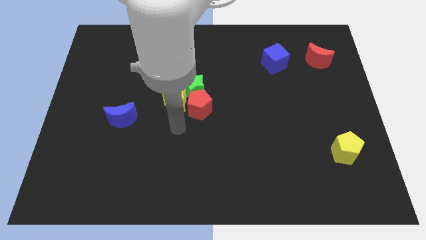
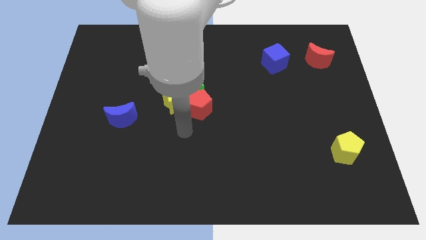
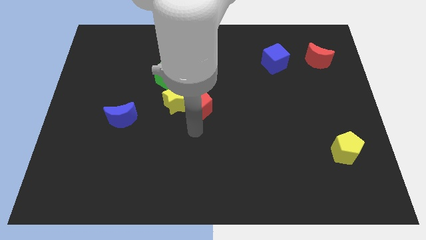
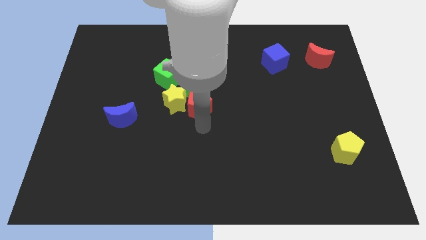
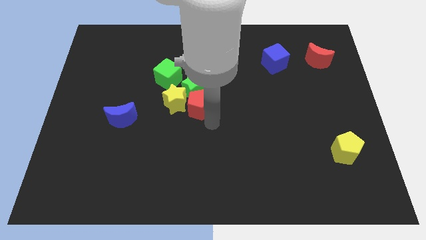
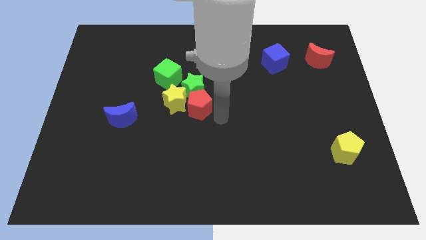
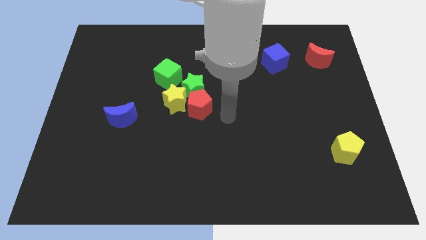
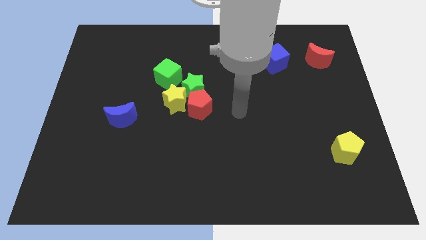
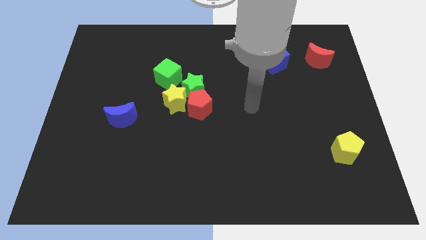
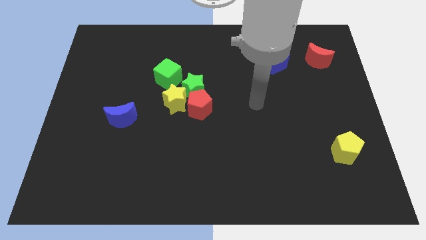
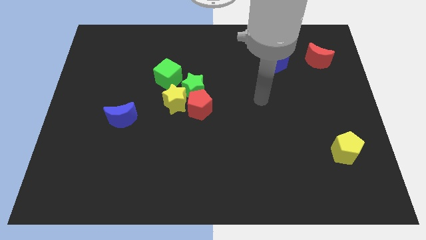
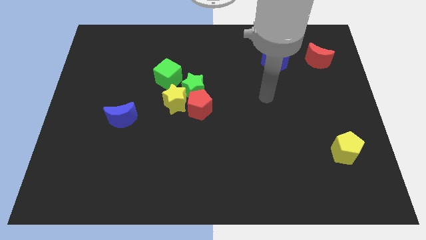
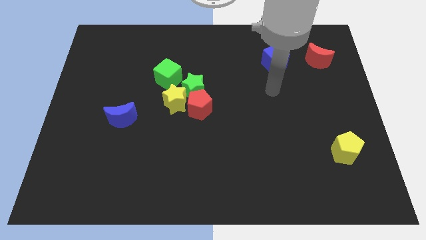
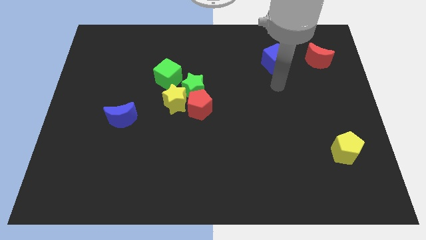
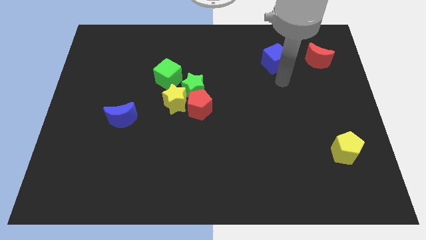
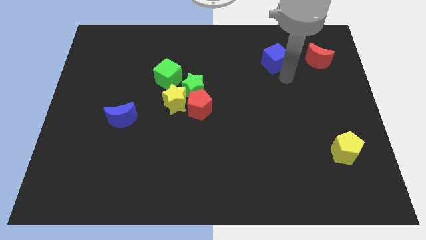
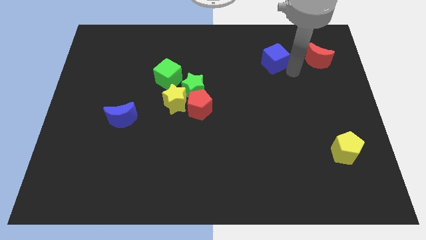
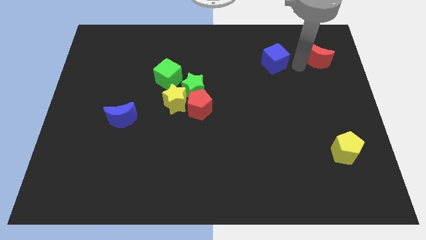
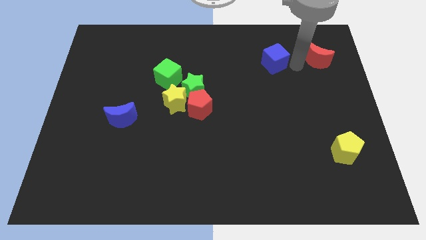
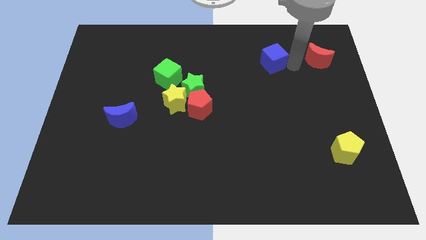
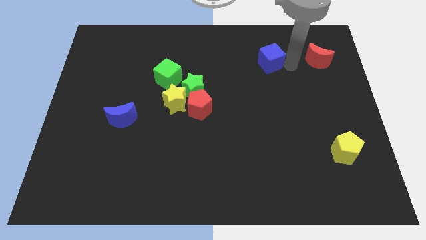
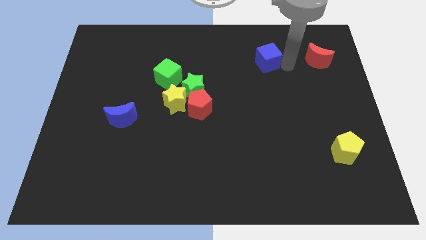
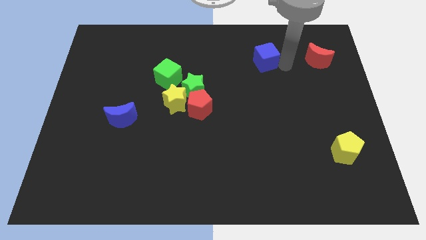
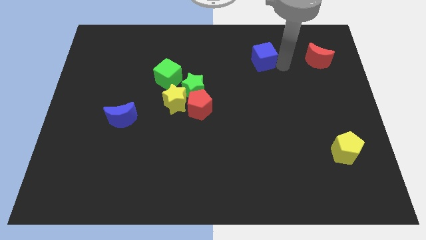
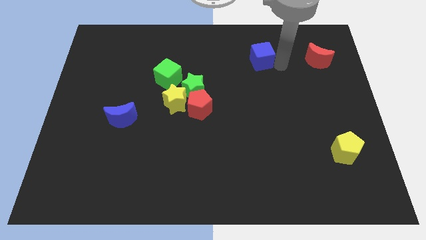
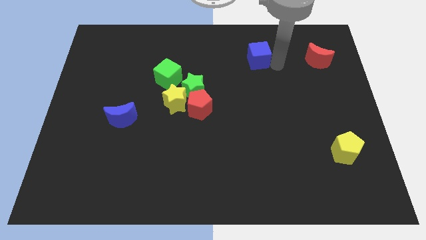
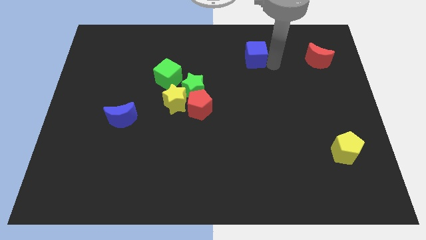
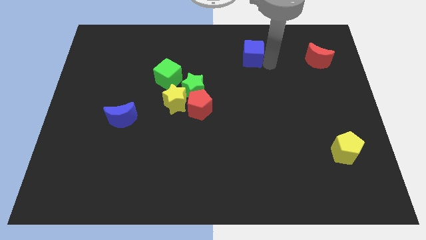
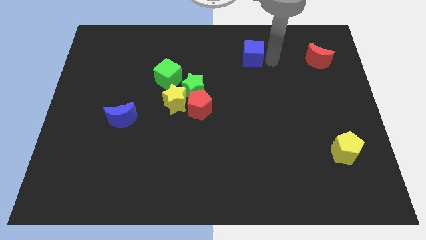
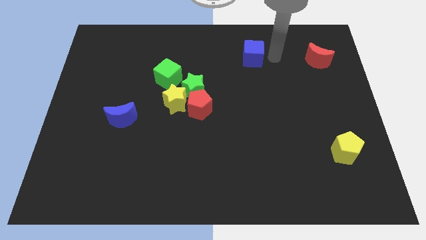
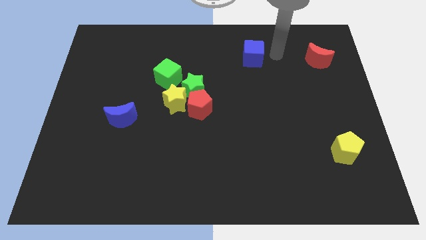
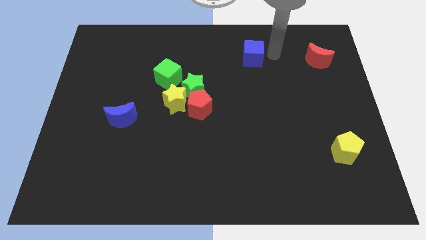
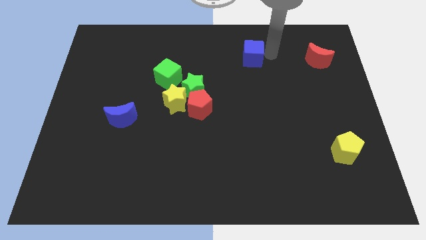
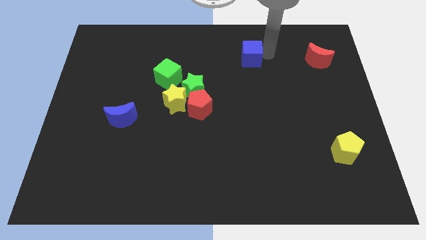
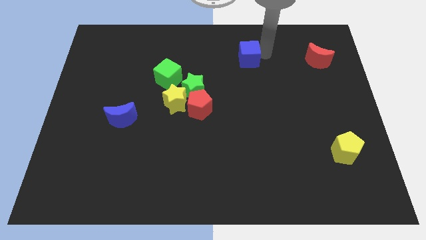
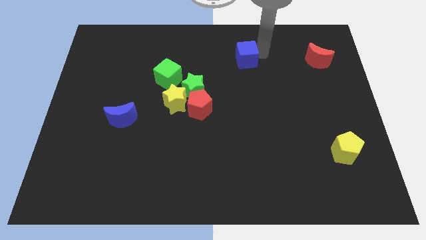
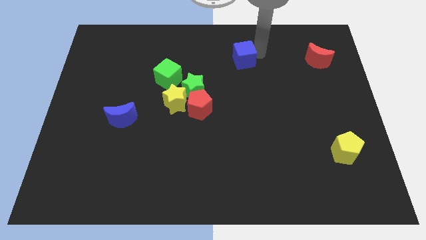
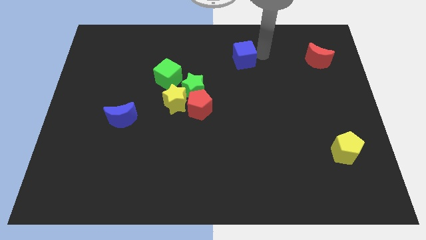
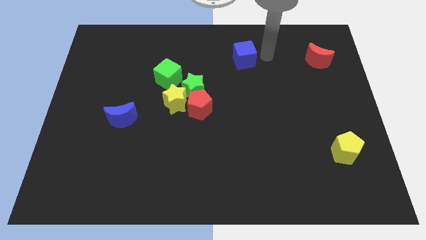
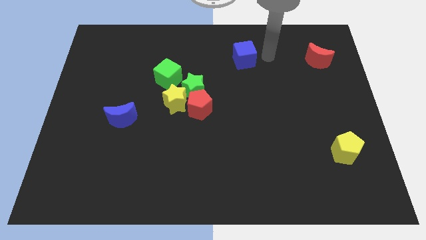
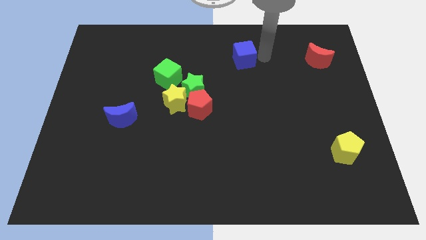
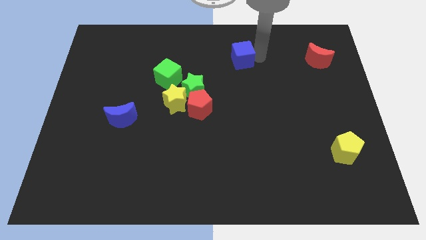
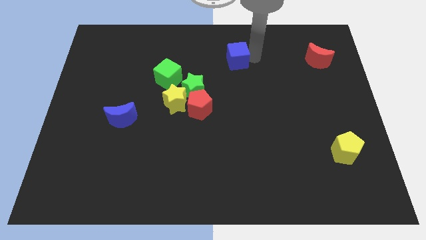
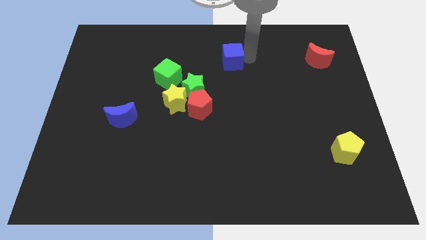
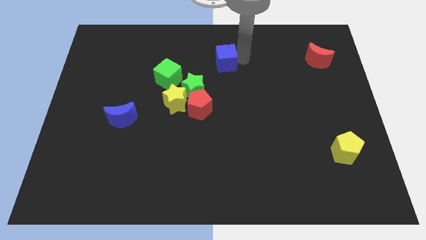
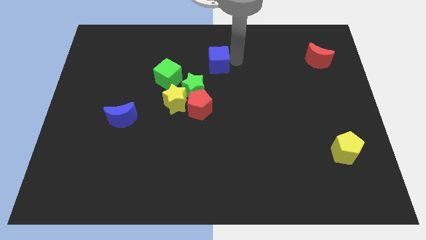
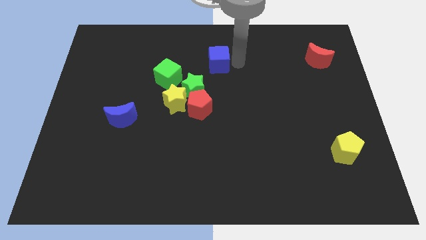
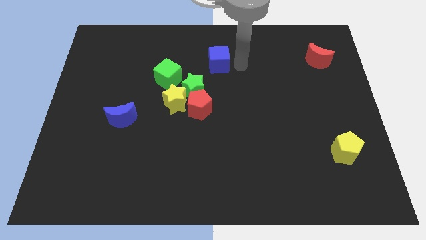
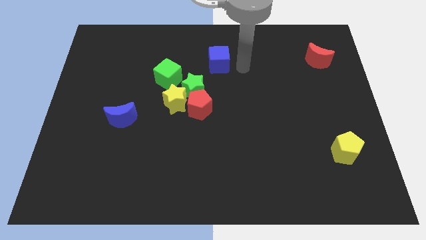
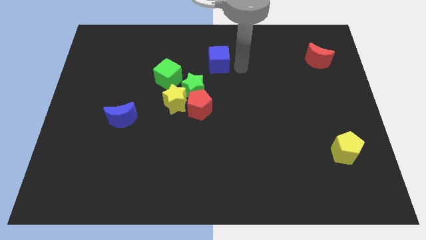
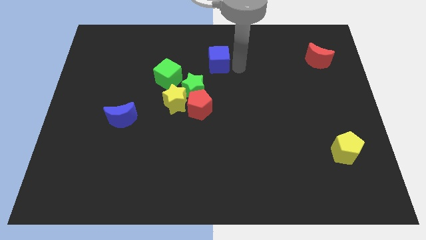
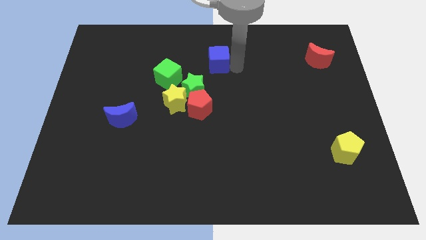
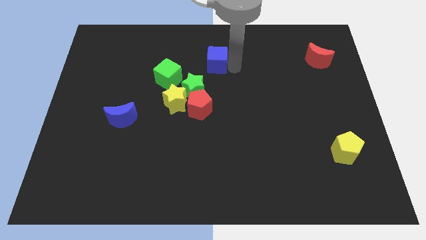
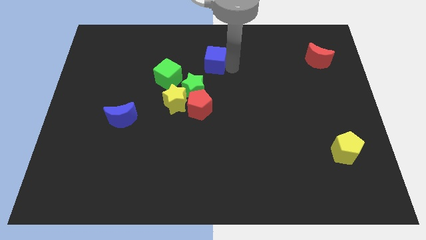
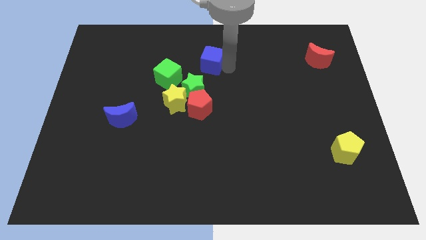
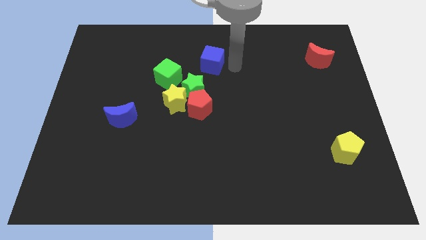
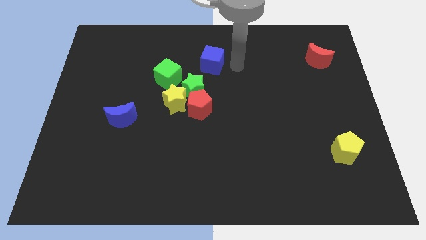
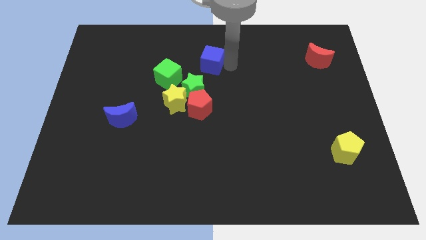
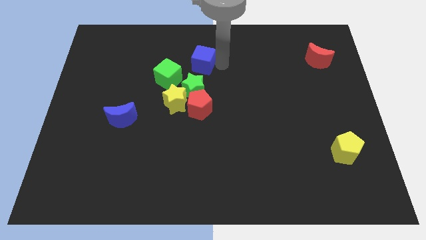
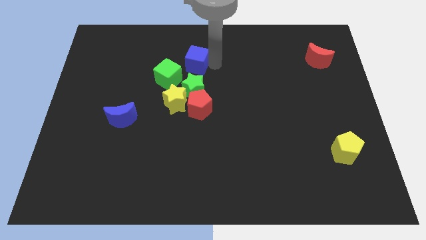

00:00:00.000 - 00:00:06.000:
slide the blue cube left

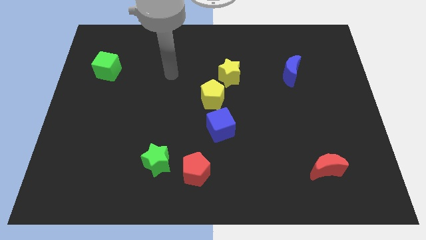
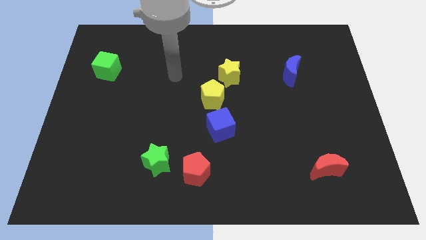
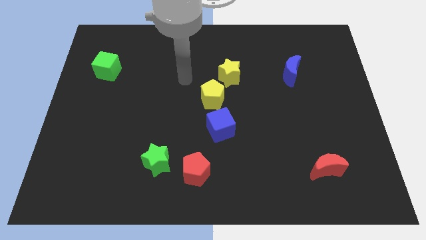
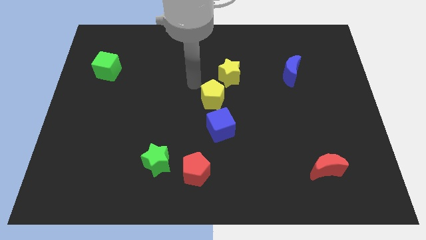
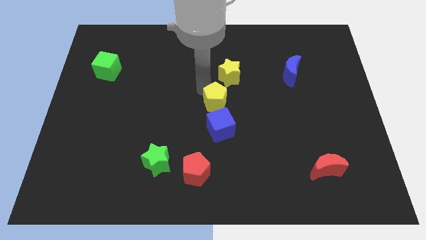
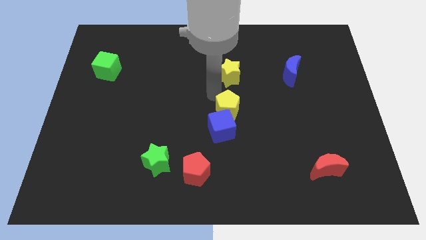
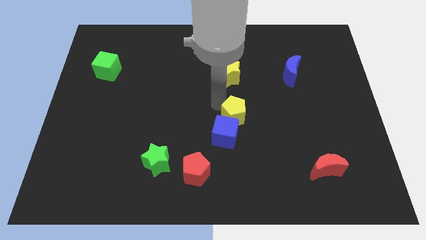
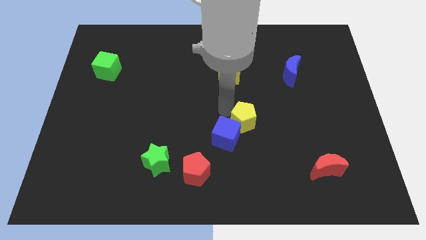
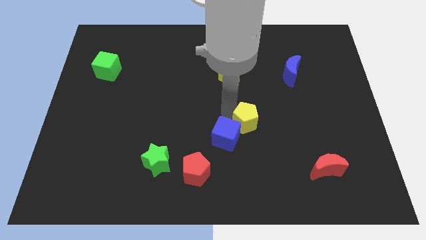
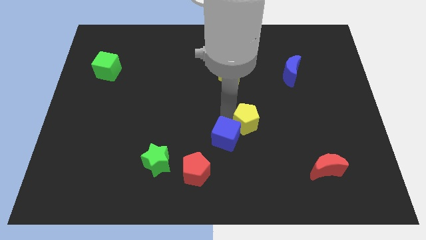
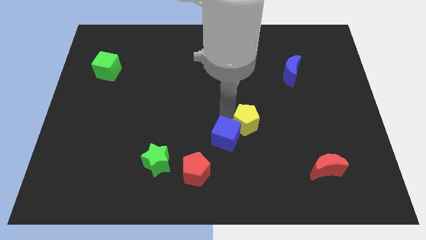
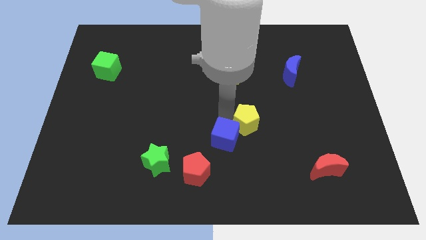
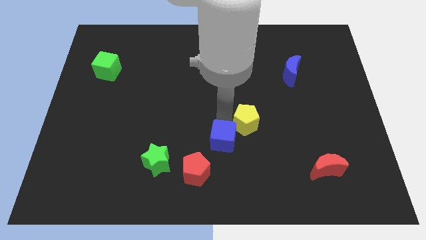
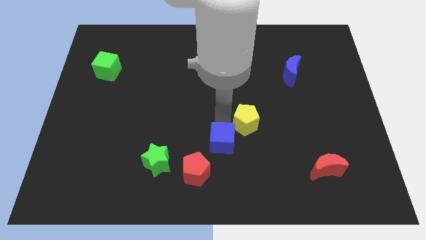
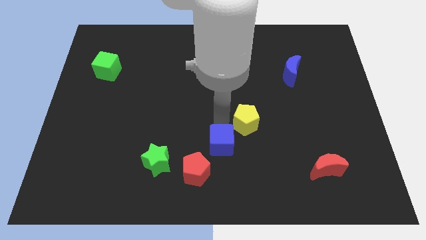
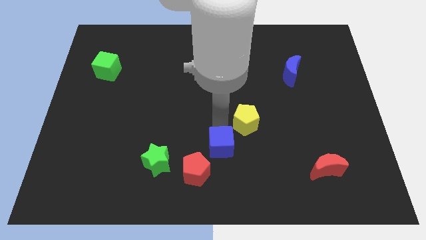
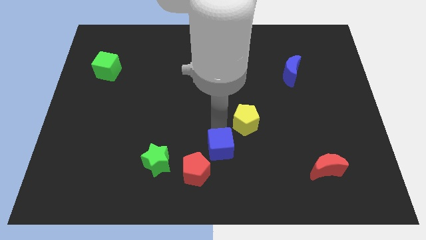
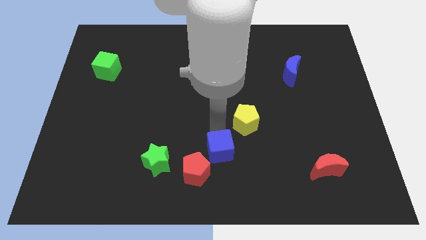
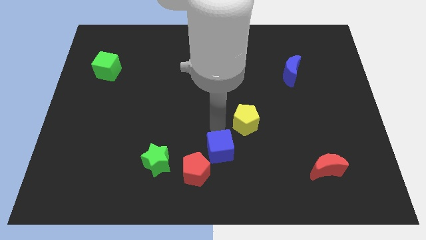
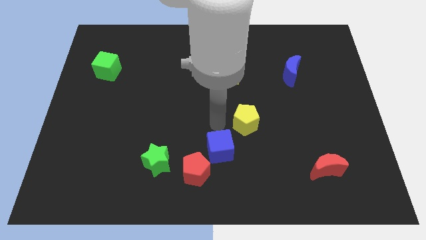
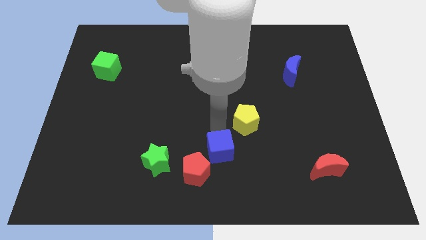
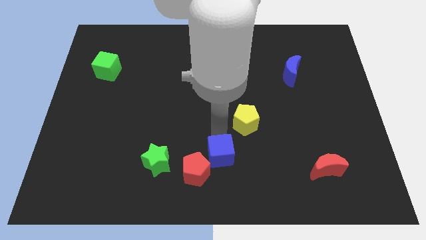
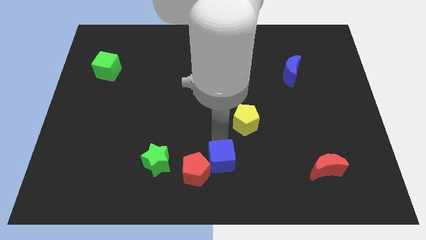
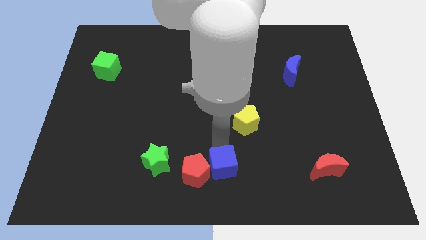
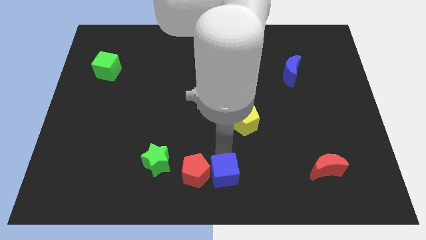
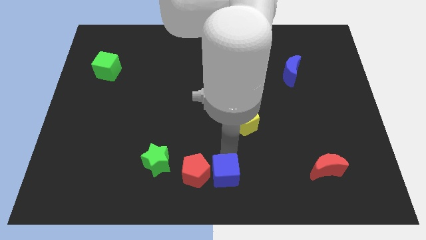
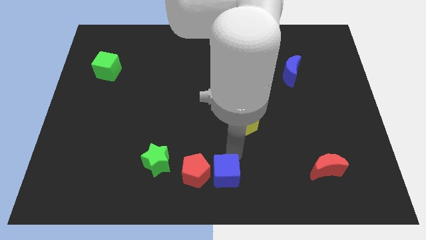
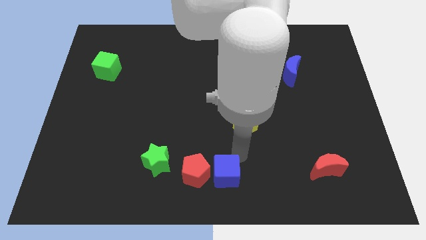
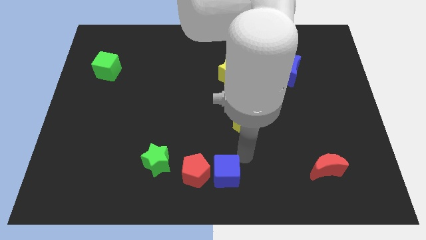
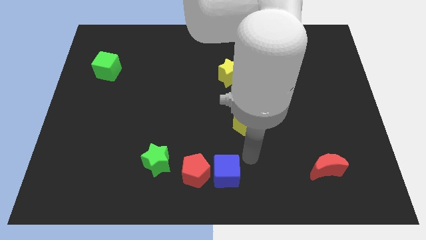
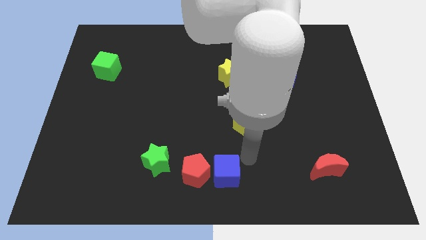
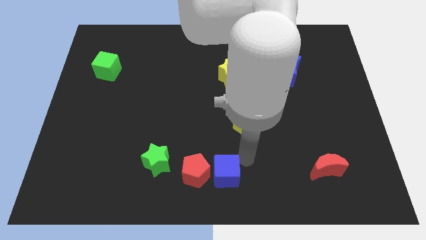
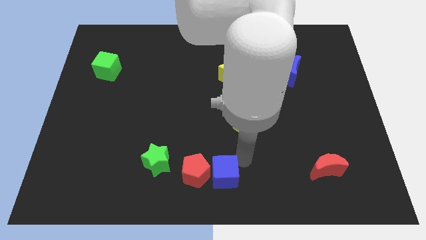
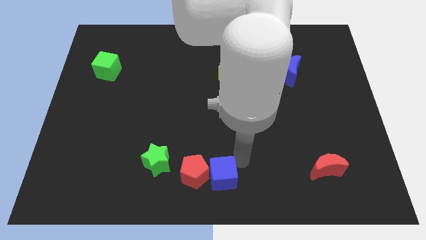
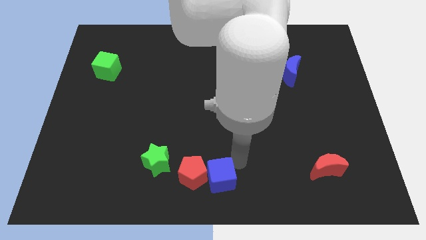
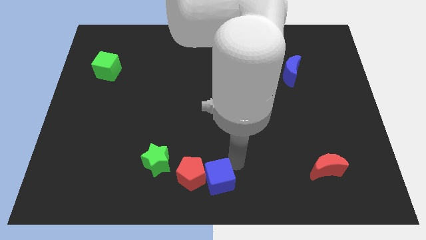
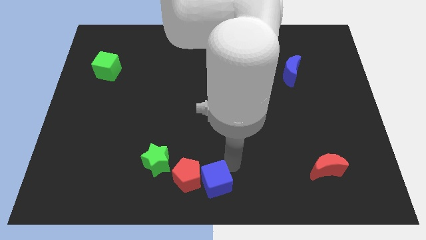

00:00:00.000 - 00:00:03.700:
slightly move the blue cube diagonally down and to the left
